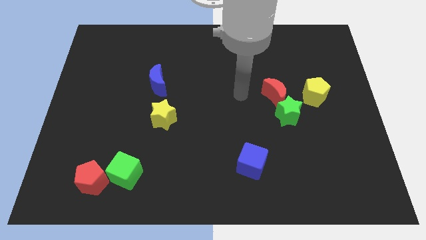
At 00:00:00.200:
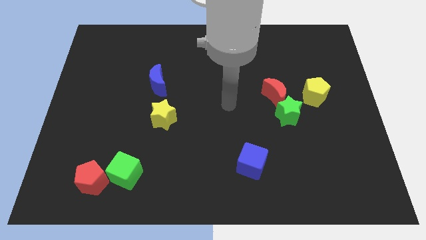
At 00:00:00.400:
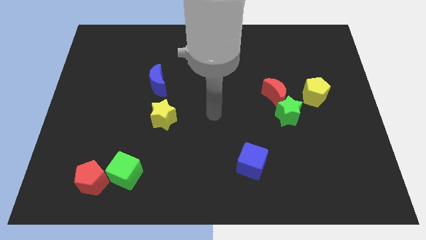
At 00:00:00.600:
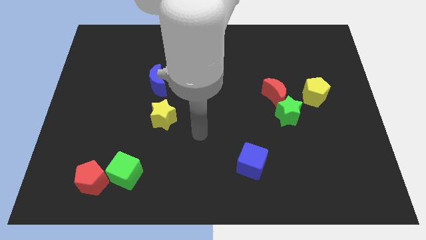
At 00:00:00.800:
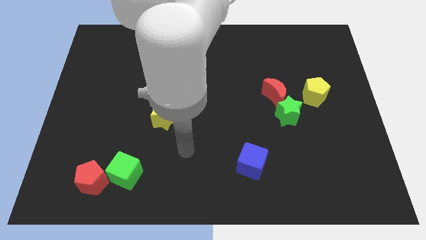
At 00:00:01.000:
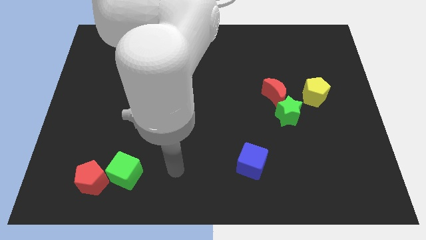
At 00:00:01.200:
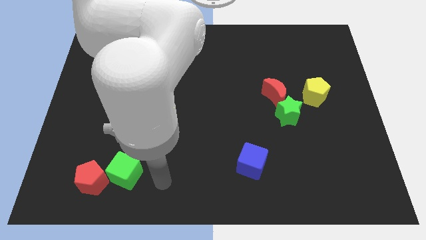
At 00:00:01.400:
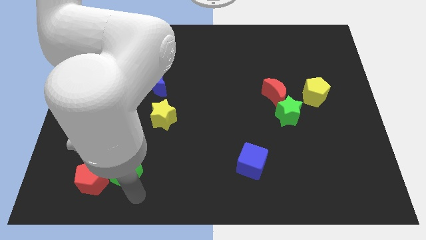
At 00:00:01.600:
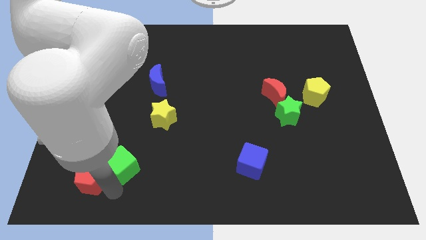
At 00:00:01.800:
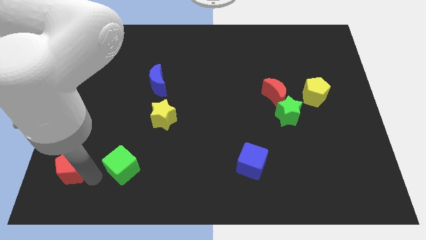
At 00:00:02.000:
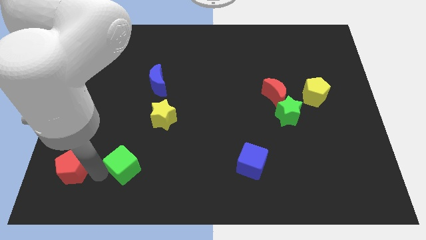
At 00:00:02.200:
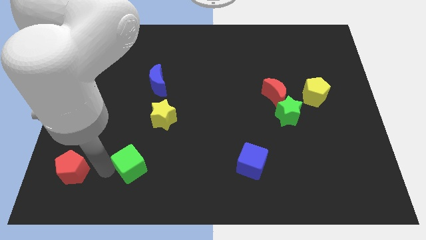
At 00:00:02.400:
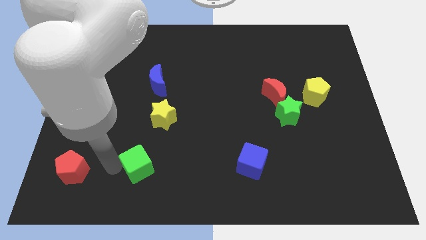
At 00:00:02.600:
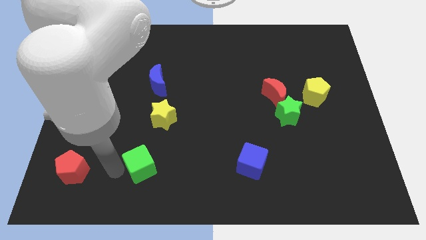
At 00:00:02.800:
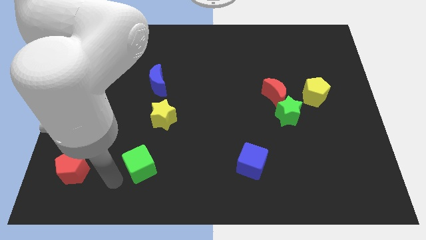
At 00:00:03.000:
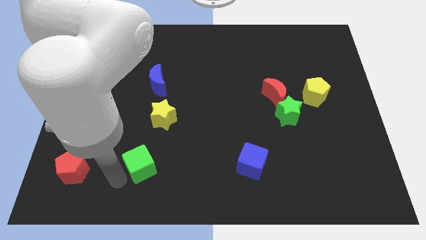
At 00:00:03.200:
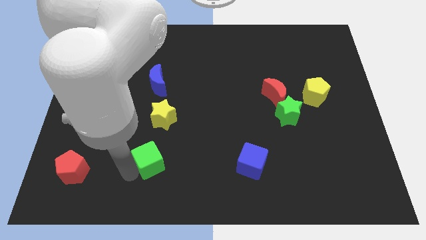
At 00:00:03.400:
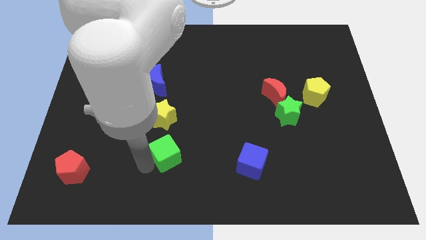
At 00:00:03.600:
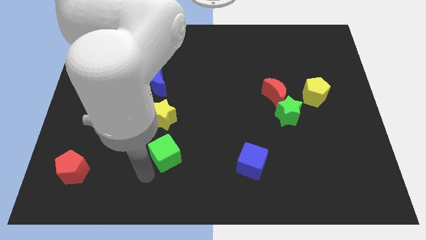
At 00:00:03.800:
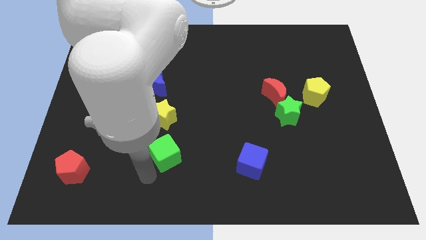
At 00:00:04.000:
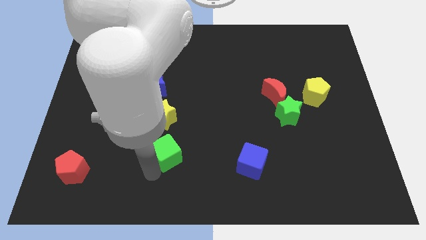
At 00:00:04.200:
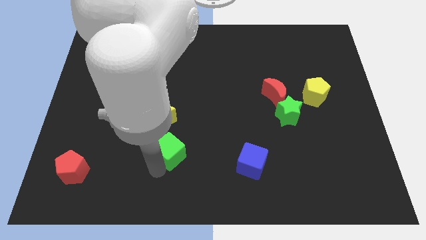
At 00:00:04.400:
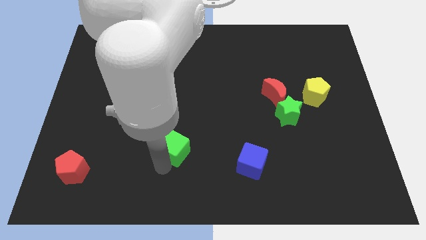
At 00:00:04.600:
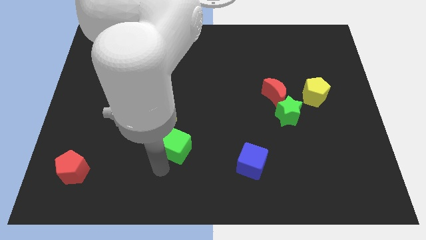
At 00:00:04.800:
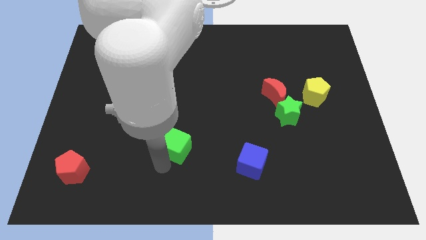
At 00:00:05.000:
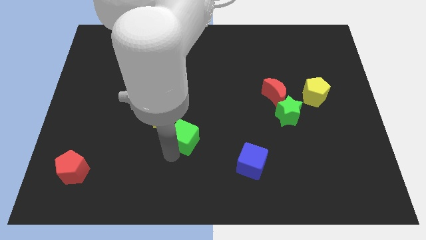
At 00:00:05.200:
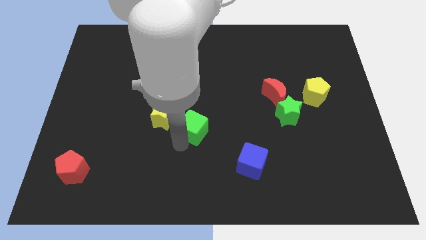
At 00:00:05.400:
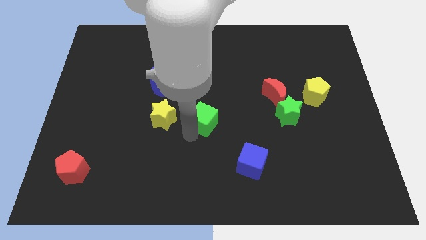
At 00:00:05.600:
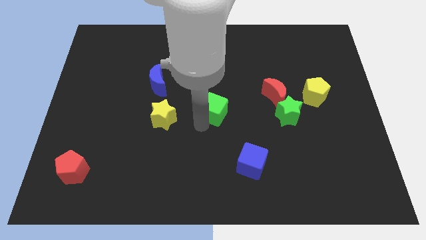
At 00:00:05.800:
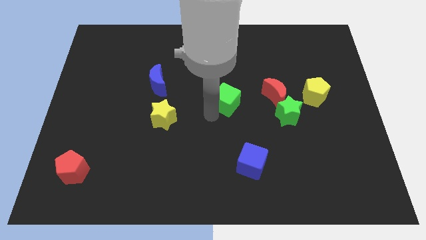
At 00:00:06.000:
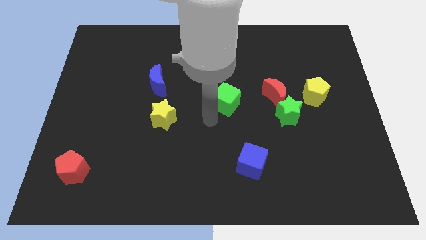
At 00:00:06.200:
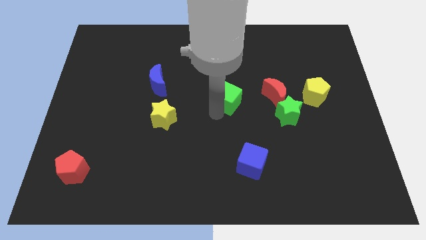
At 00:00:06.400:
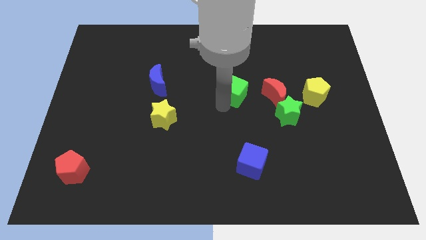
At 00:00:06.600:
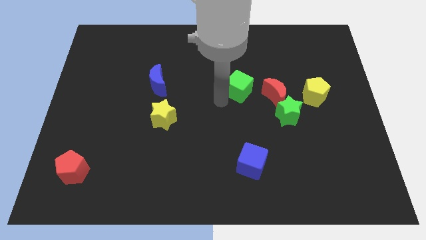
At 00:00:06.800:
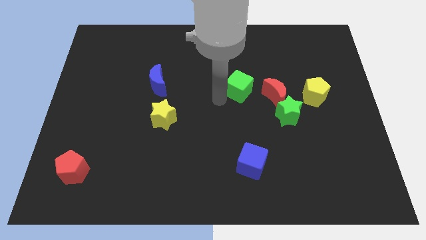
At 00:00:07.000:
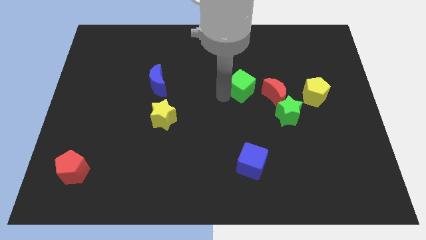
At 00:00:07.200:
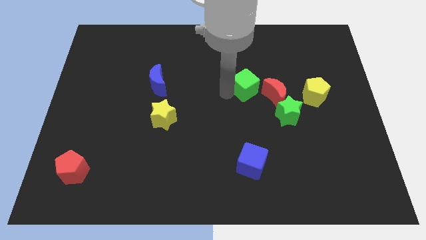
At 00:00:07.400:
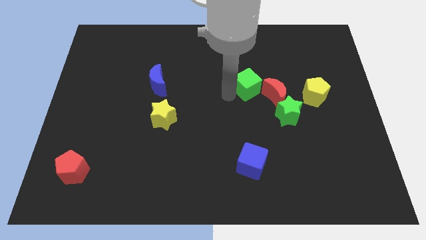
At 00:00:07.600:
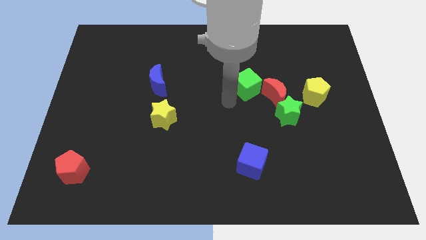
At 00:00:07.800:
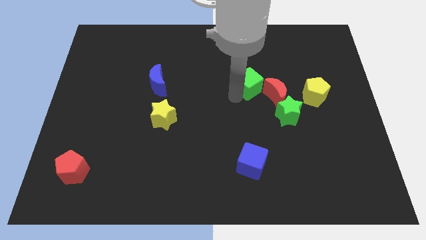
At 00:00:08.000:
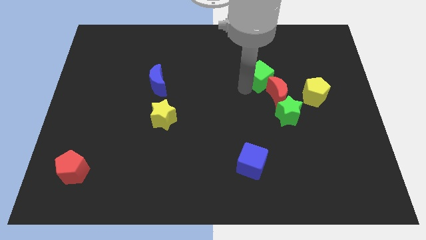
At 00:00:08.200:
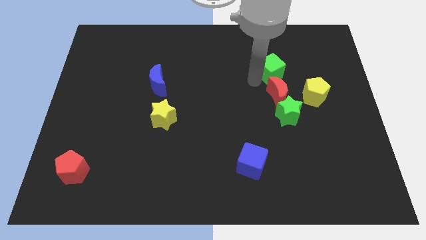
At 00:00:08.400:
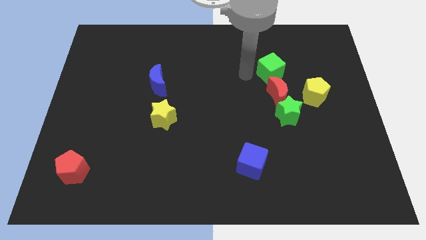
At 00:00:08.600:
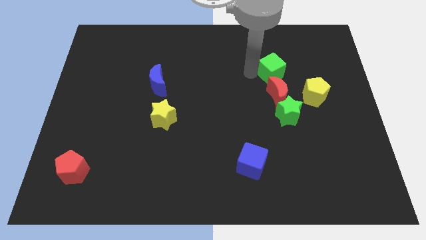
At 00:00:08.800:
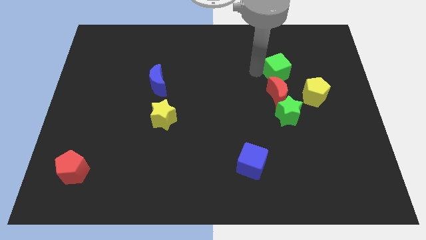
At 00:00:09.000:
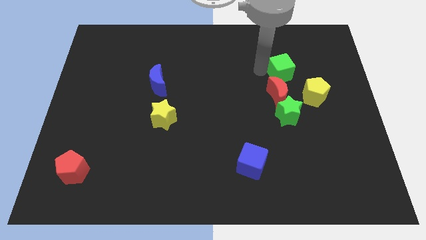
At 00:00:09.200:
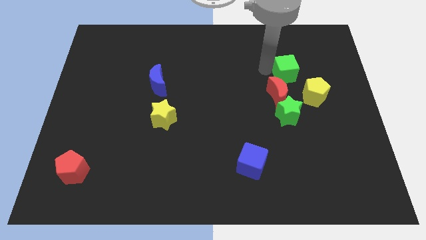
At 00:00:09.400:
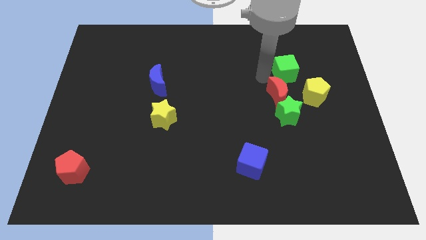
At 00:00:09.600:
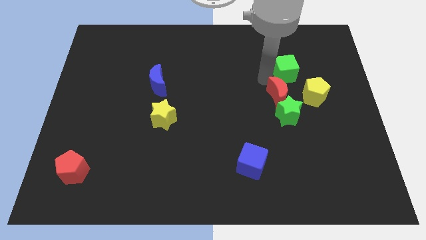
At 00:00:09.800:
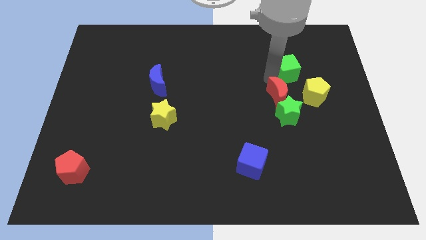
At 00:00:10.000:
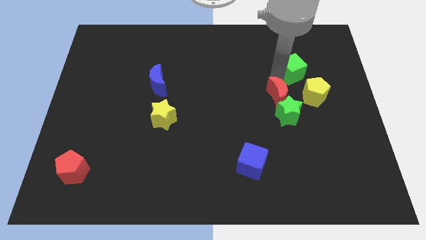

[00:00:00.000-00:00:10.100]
put the green cube to the top side of the yellow pentagon

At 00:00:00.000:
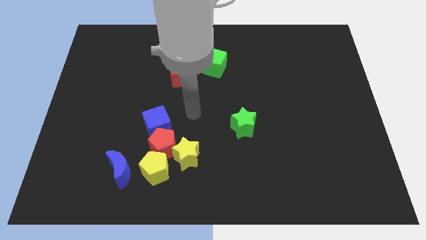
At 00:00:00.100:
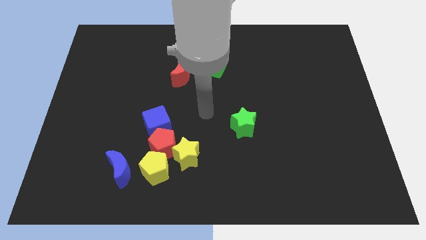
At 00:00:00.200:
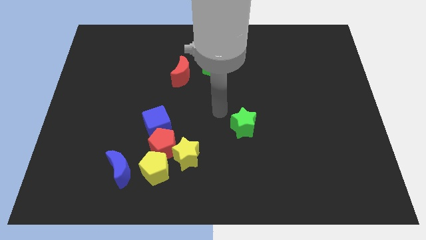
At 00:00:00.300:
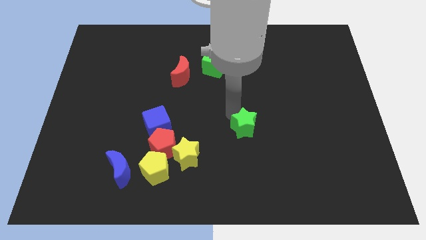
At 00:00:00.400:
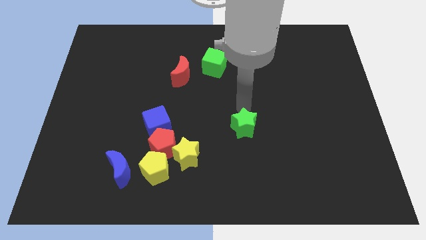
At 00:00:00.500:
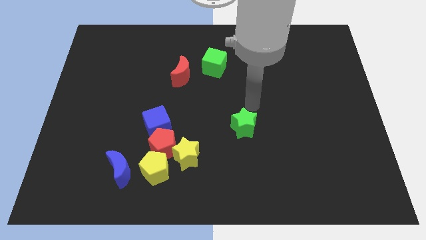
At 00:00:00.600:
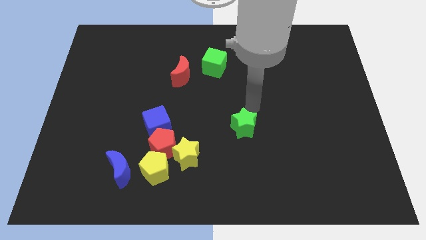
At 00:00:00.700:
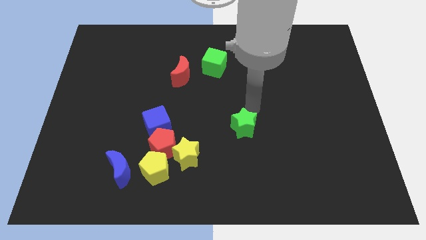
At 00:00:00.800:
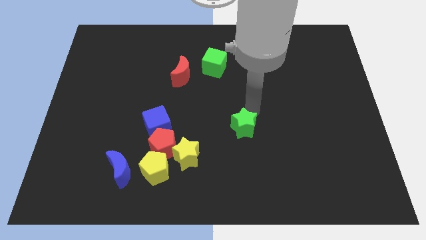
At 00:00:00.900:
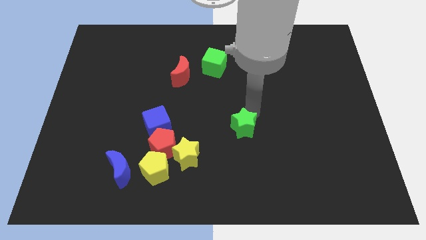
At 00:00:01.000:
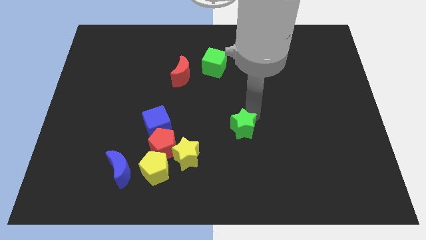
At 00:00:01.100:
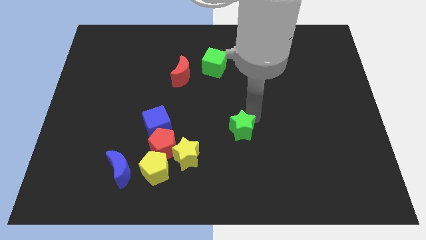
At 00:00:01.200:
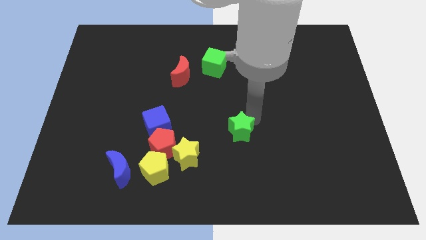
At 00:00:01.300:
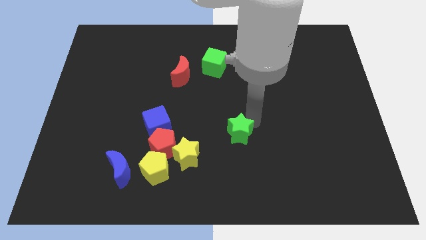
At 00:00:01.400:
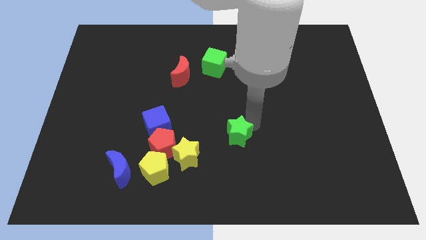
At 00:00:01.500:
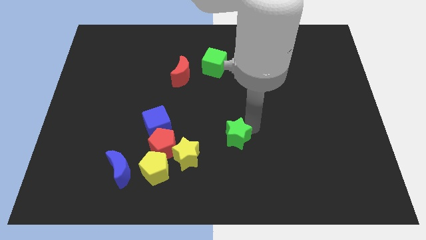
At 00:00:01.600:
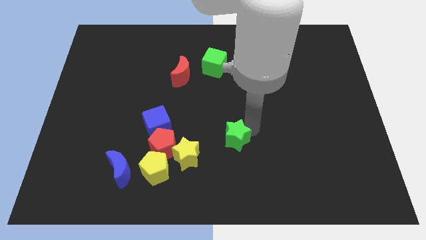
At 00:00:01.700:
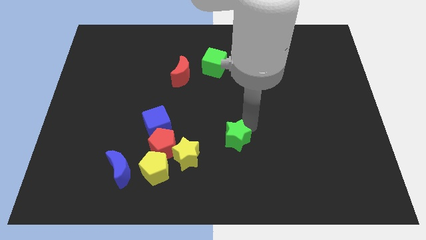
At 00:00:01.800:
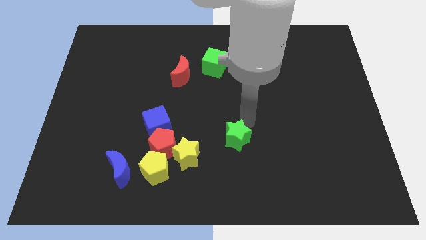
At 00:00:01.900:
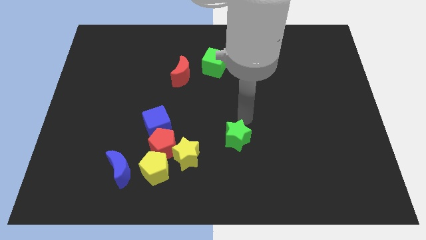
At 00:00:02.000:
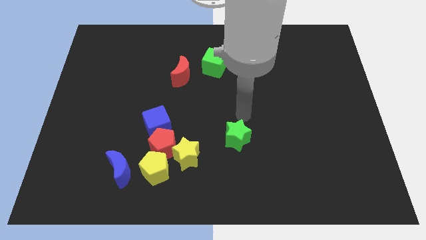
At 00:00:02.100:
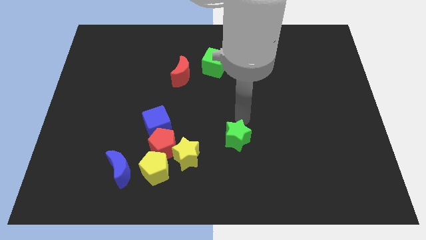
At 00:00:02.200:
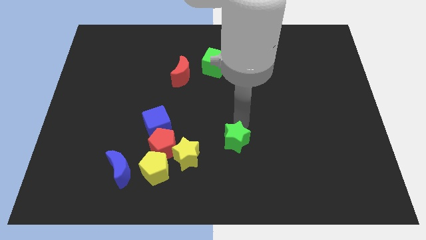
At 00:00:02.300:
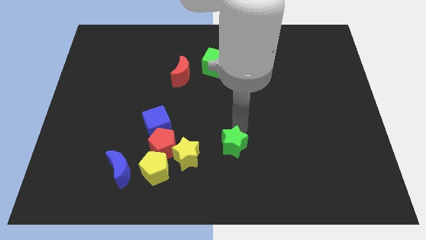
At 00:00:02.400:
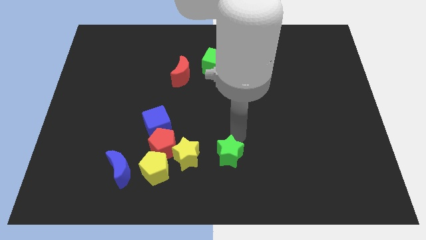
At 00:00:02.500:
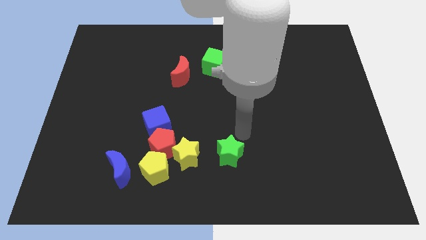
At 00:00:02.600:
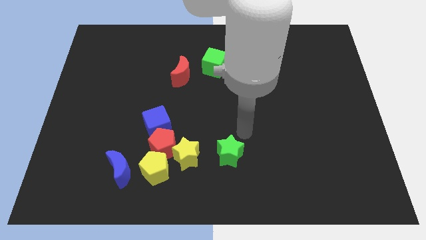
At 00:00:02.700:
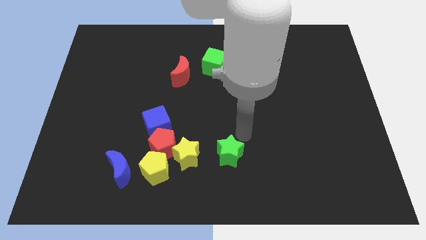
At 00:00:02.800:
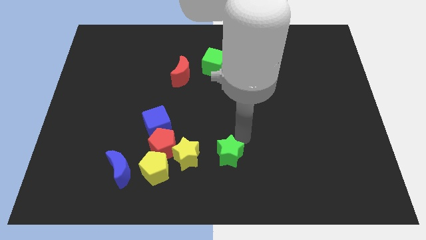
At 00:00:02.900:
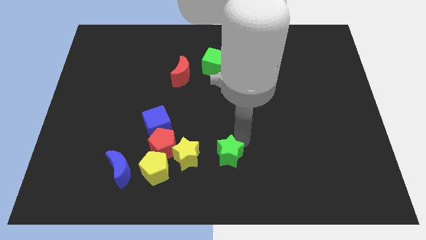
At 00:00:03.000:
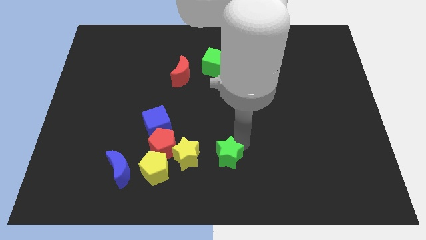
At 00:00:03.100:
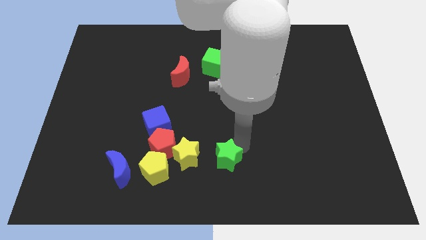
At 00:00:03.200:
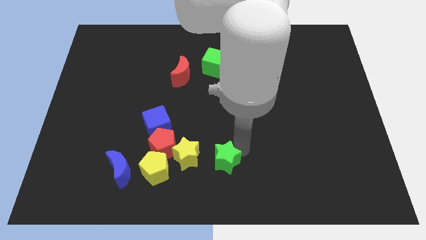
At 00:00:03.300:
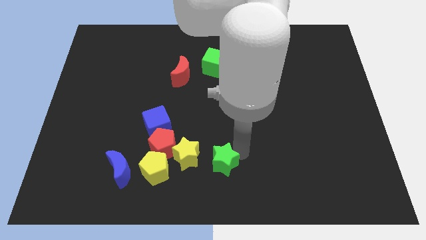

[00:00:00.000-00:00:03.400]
put the green star to the bottom right side of the yellow star
